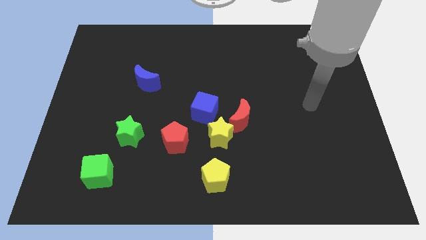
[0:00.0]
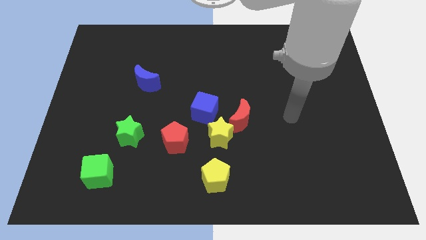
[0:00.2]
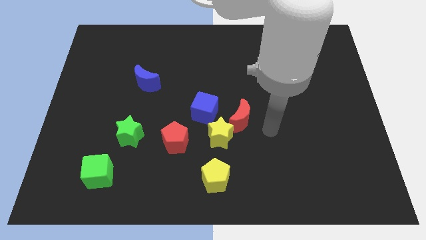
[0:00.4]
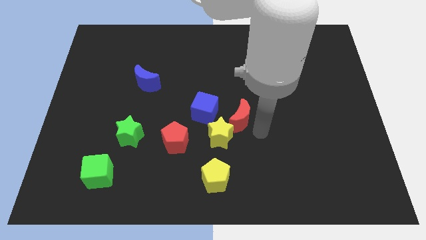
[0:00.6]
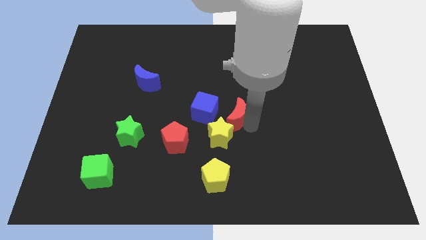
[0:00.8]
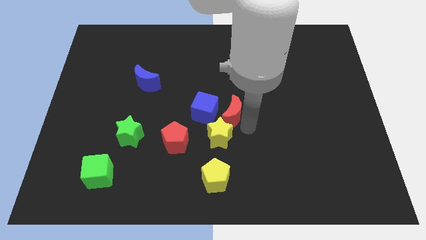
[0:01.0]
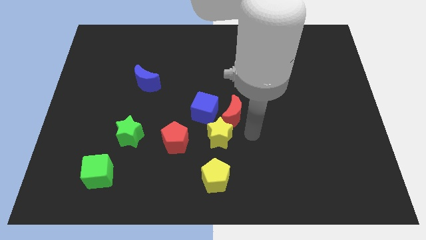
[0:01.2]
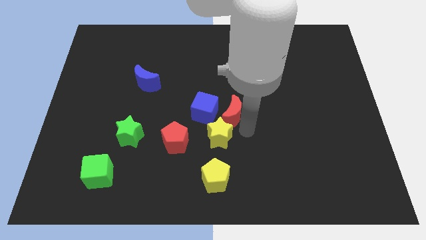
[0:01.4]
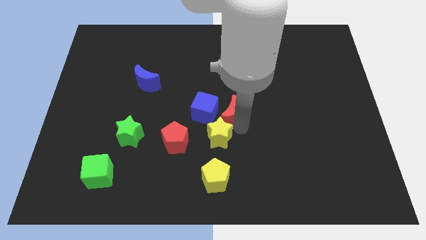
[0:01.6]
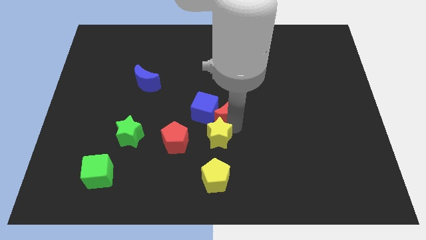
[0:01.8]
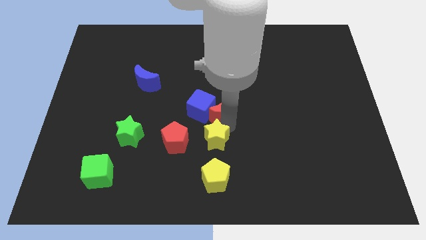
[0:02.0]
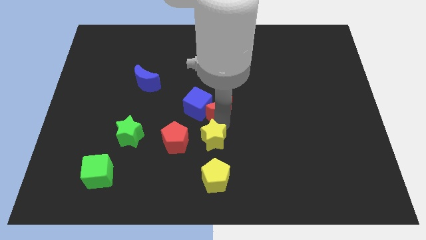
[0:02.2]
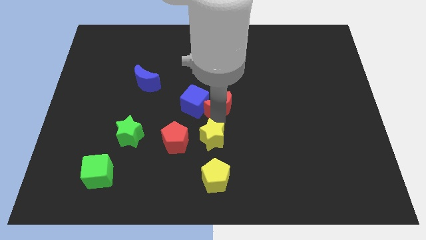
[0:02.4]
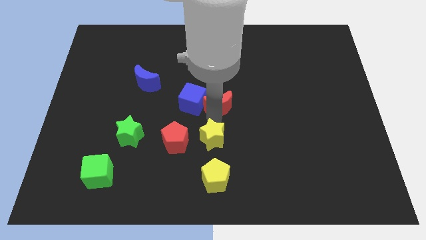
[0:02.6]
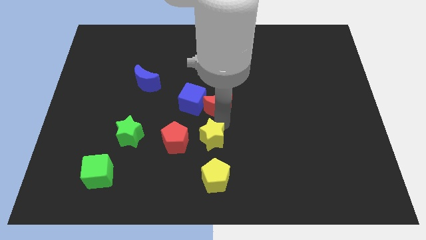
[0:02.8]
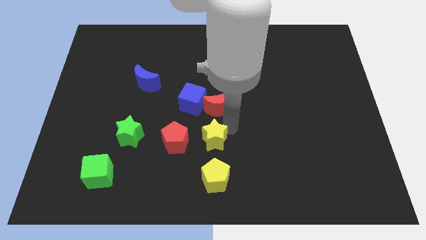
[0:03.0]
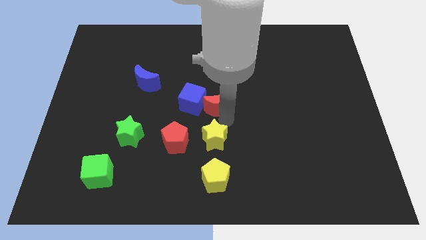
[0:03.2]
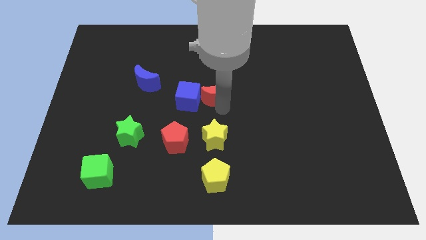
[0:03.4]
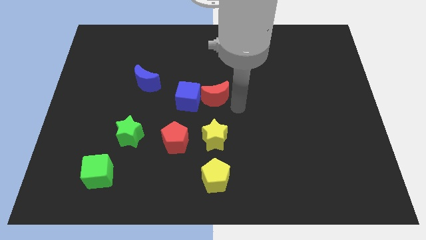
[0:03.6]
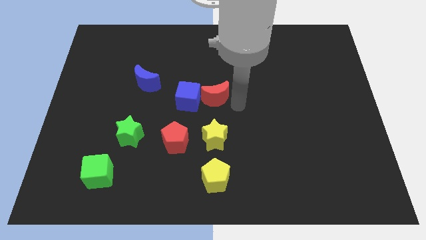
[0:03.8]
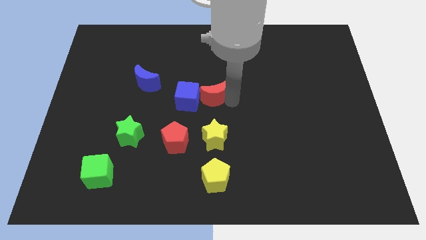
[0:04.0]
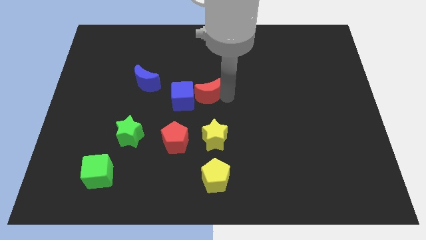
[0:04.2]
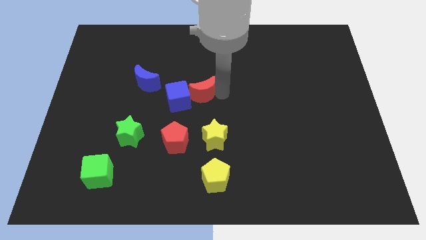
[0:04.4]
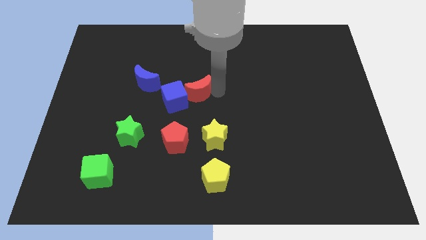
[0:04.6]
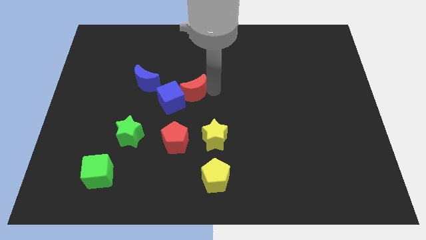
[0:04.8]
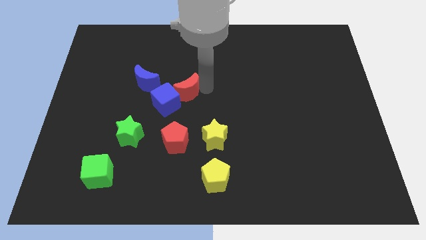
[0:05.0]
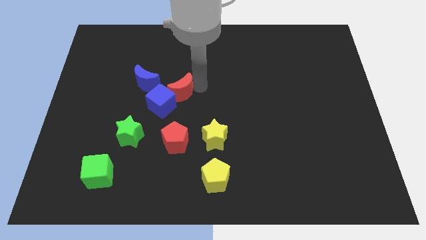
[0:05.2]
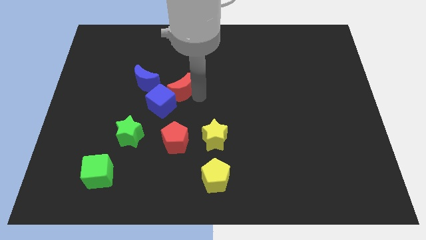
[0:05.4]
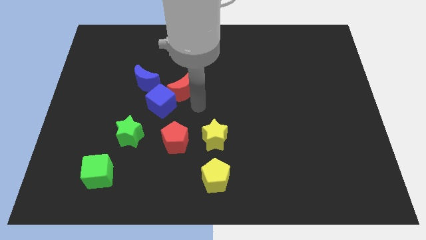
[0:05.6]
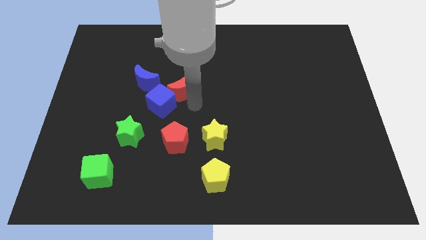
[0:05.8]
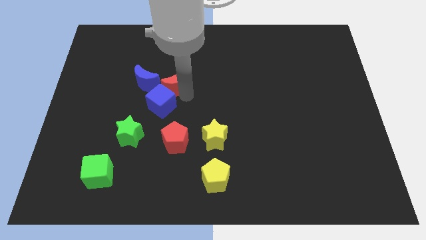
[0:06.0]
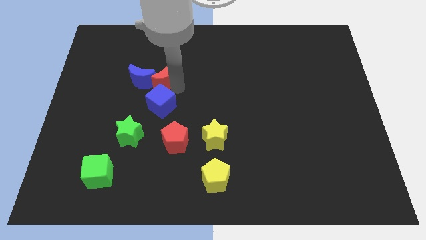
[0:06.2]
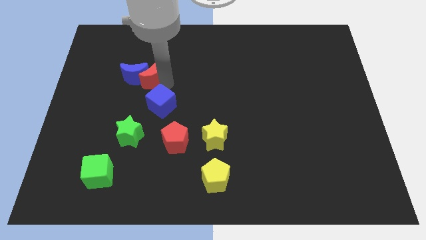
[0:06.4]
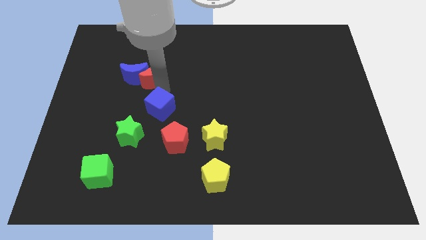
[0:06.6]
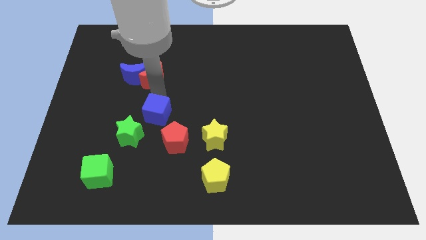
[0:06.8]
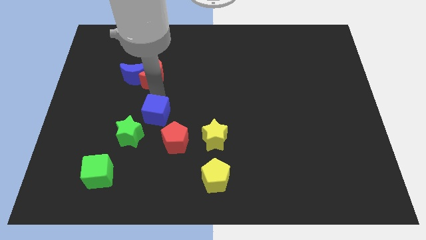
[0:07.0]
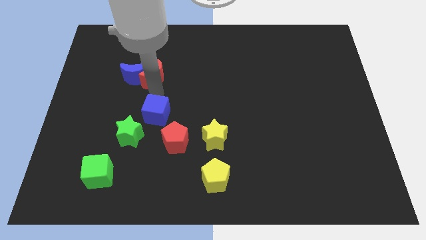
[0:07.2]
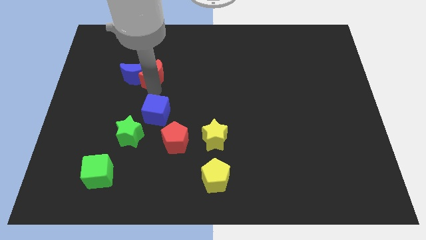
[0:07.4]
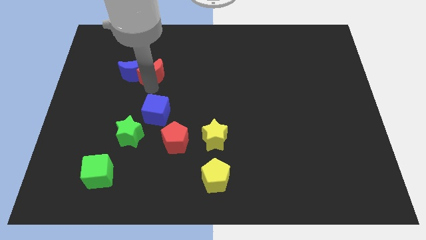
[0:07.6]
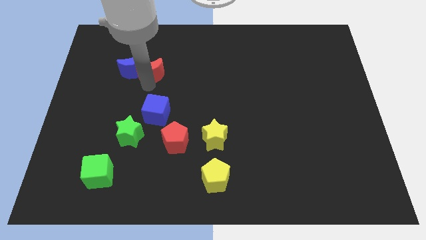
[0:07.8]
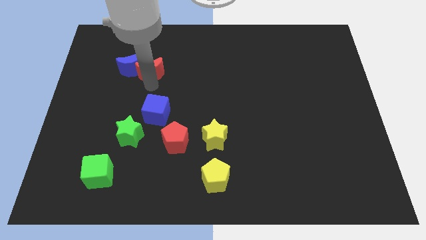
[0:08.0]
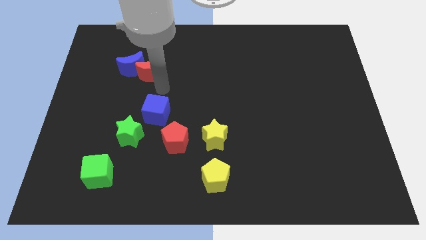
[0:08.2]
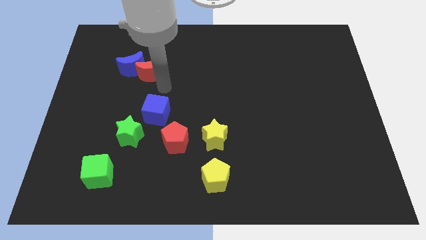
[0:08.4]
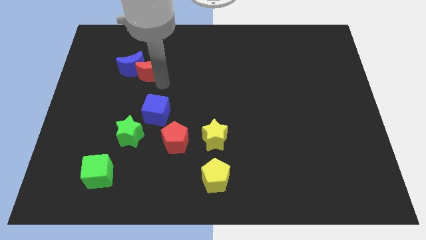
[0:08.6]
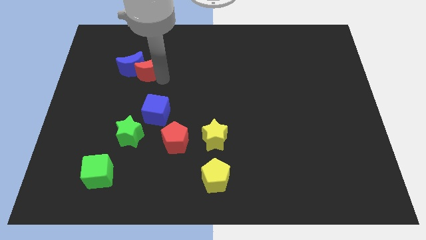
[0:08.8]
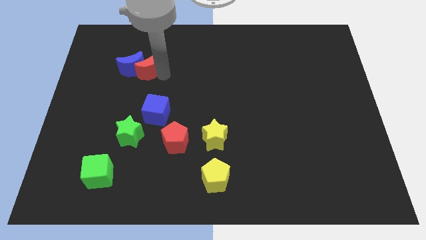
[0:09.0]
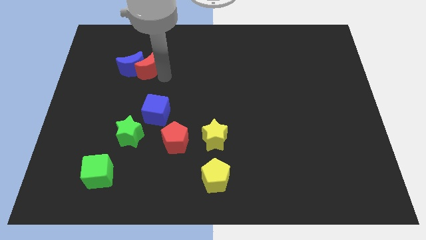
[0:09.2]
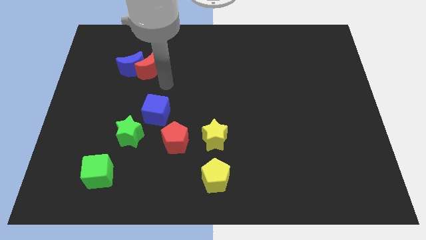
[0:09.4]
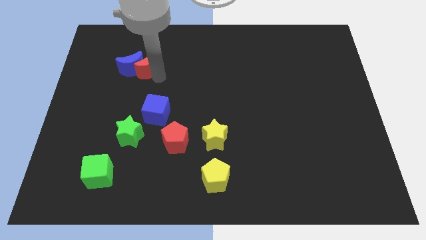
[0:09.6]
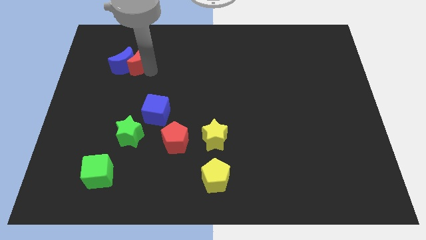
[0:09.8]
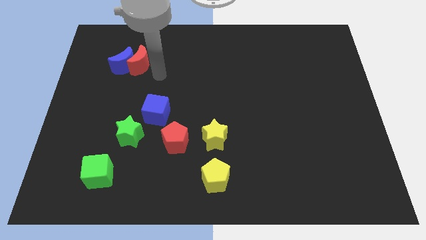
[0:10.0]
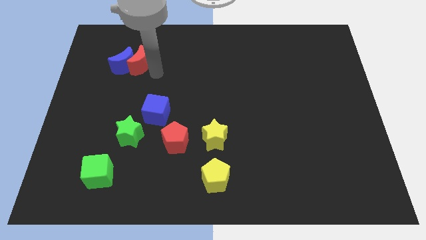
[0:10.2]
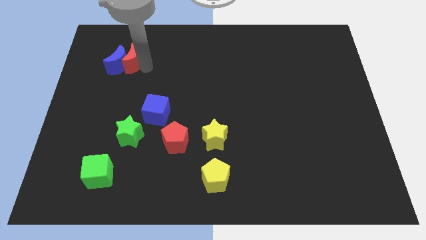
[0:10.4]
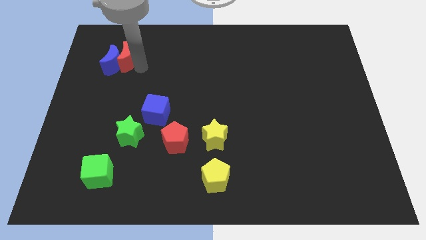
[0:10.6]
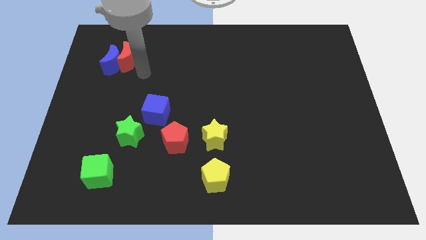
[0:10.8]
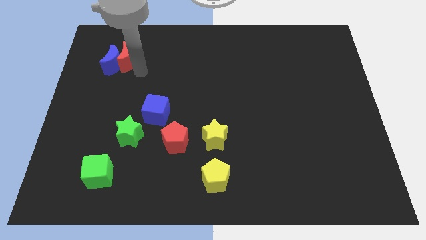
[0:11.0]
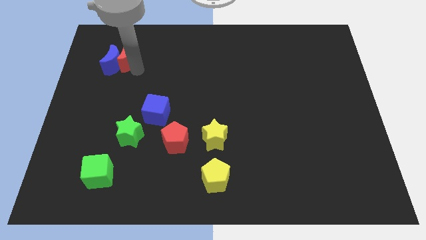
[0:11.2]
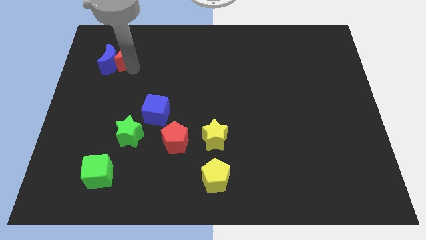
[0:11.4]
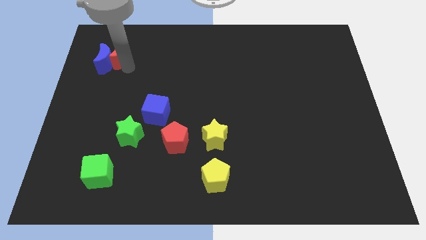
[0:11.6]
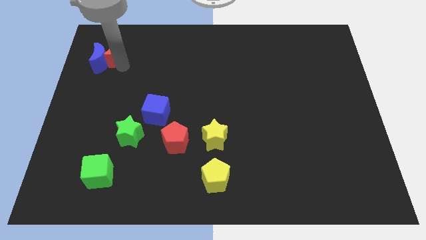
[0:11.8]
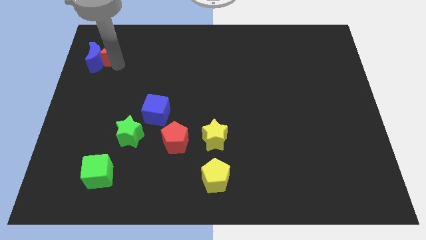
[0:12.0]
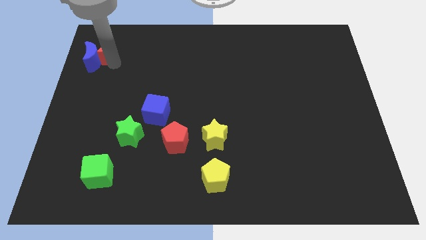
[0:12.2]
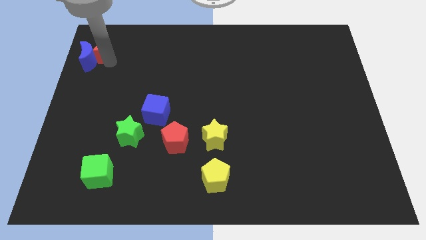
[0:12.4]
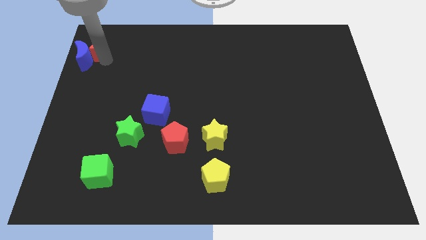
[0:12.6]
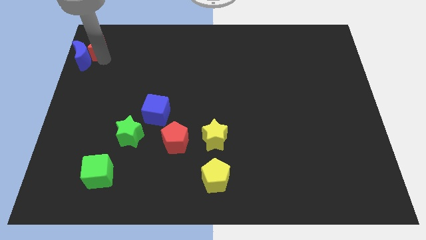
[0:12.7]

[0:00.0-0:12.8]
move the red moon to the top left

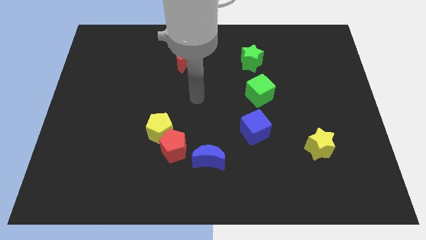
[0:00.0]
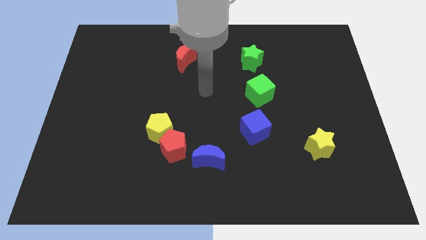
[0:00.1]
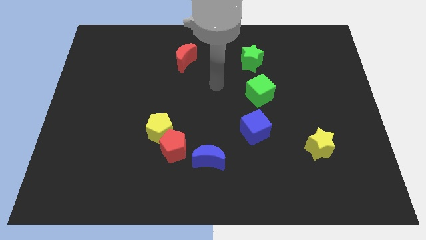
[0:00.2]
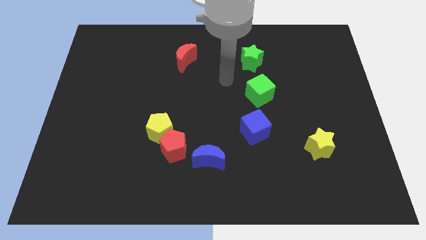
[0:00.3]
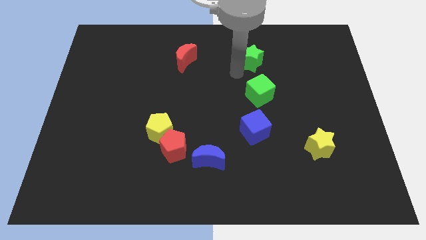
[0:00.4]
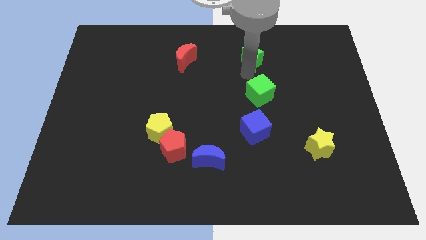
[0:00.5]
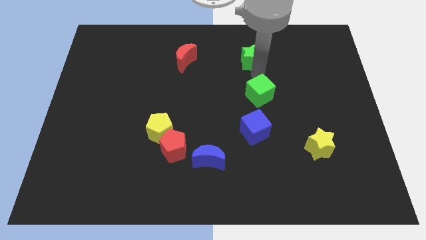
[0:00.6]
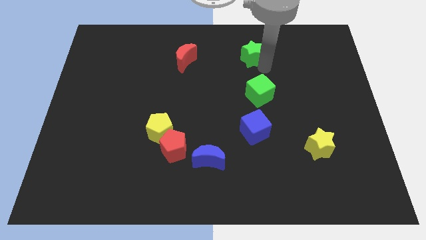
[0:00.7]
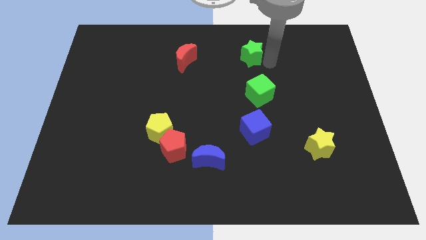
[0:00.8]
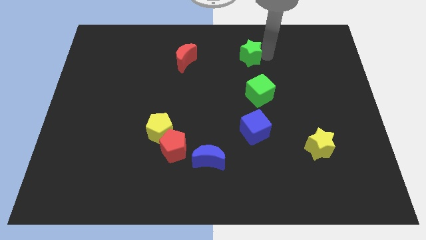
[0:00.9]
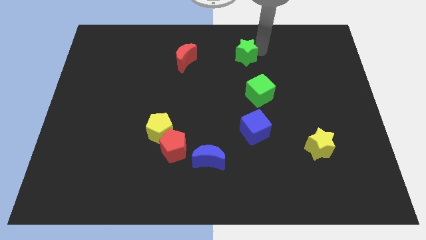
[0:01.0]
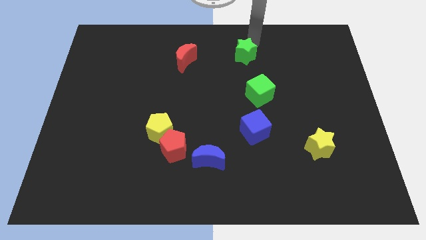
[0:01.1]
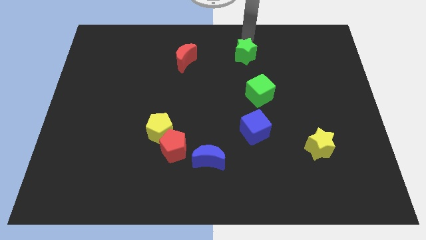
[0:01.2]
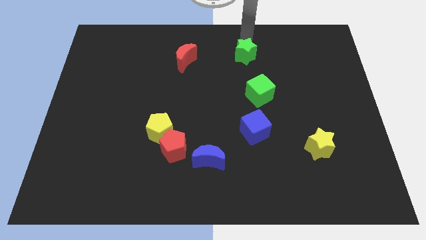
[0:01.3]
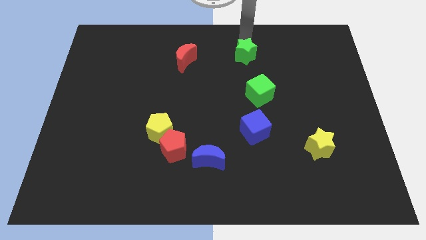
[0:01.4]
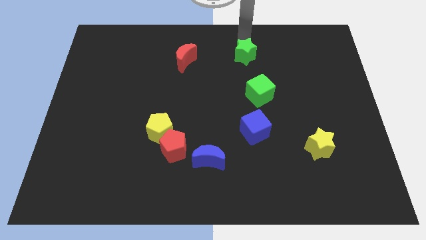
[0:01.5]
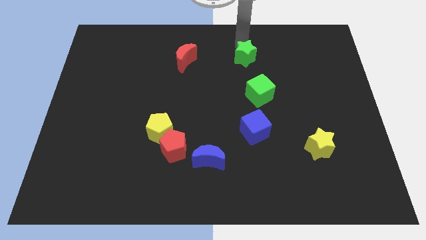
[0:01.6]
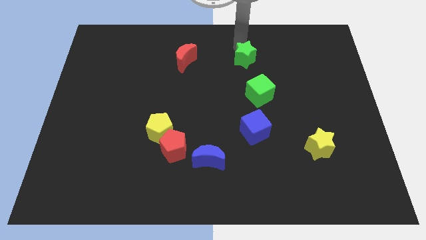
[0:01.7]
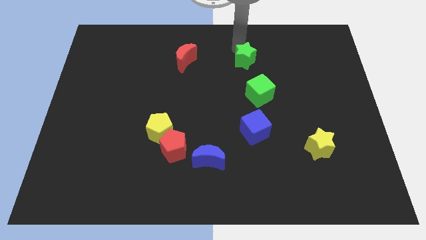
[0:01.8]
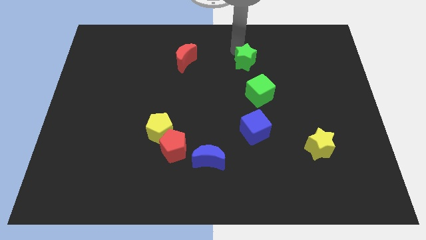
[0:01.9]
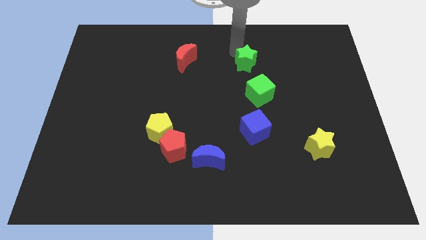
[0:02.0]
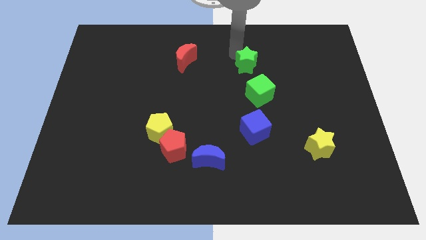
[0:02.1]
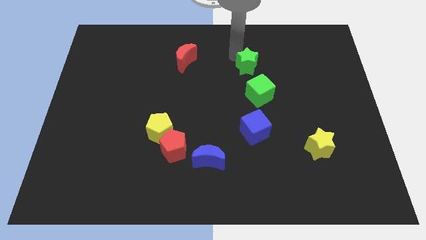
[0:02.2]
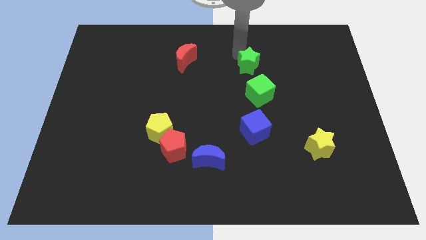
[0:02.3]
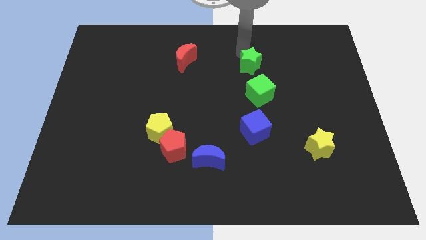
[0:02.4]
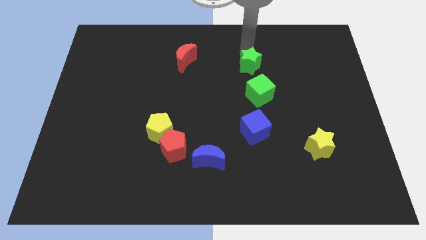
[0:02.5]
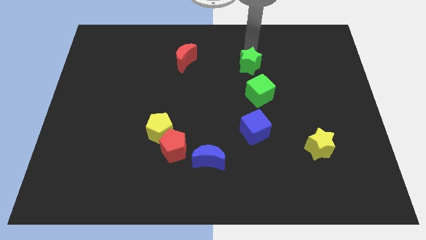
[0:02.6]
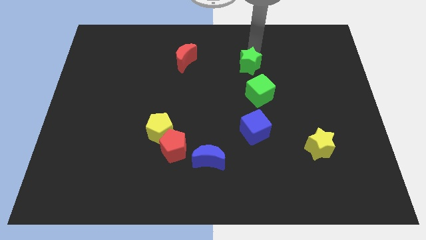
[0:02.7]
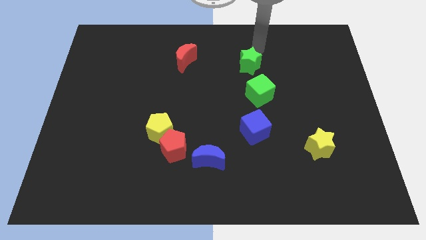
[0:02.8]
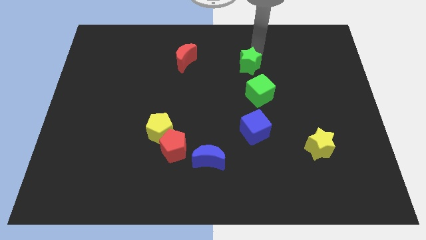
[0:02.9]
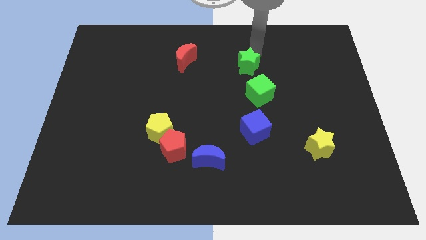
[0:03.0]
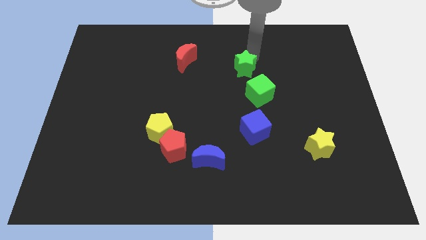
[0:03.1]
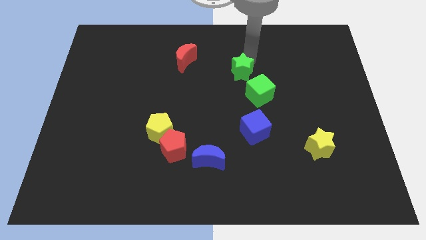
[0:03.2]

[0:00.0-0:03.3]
put the green star to the center
